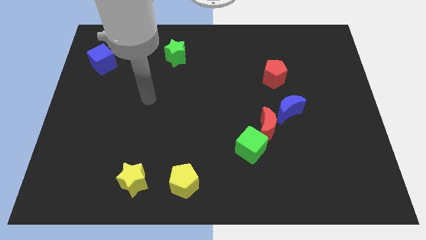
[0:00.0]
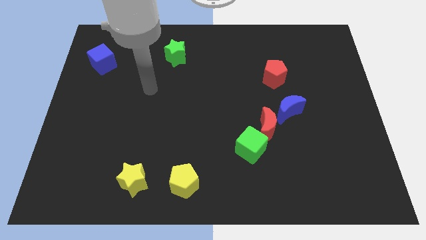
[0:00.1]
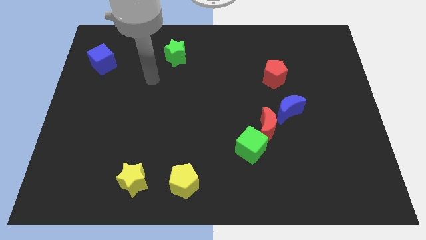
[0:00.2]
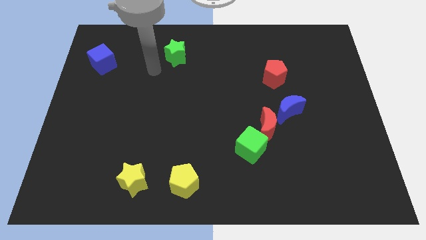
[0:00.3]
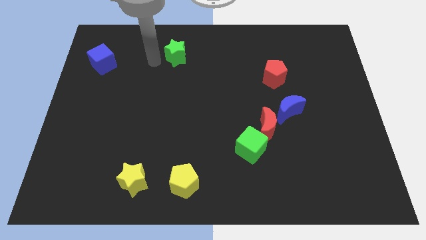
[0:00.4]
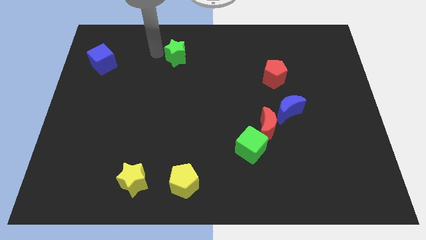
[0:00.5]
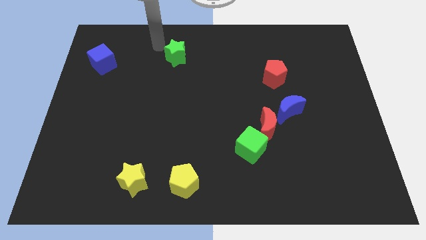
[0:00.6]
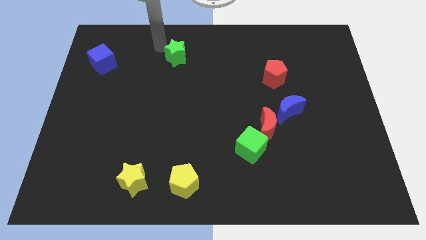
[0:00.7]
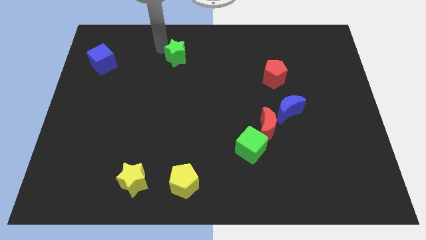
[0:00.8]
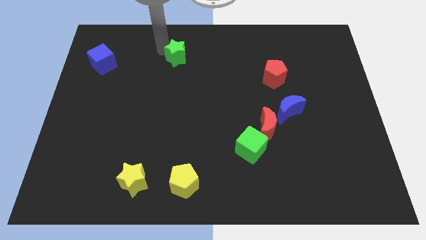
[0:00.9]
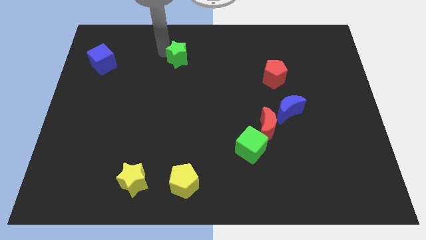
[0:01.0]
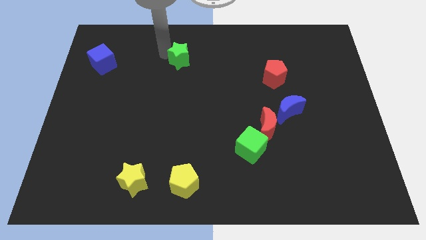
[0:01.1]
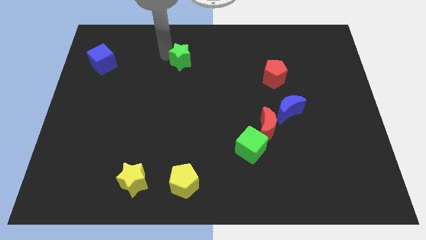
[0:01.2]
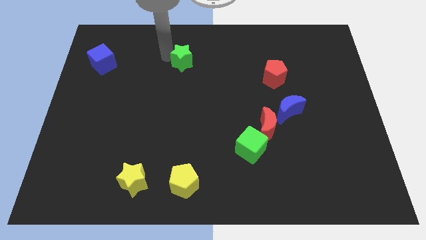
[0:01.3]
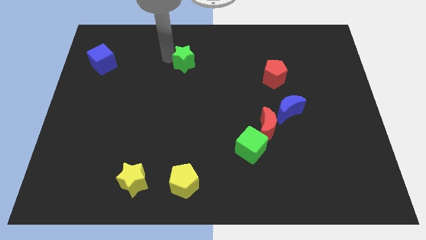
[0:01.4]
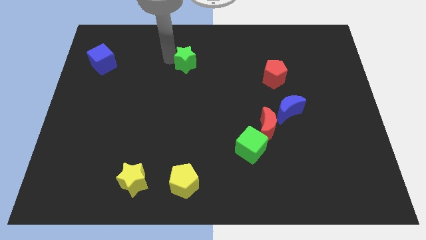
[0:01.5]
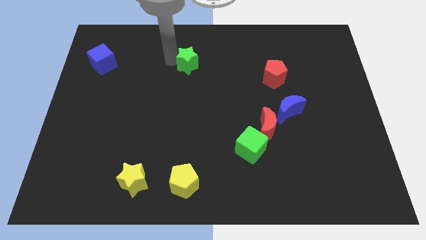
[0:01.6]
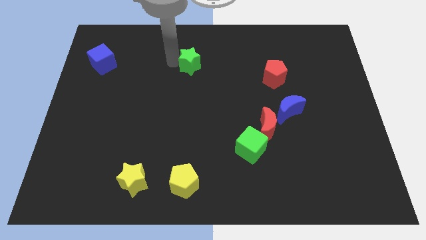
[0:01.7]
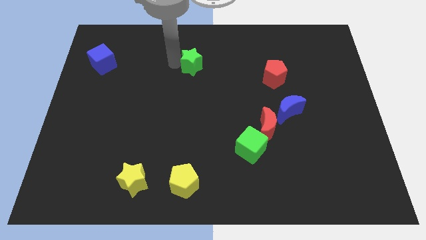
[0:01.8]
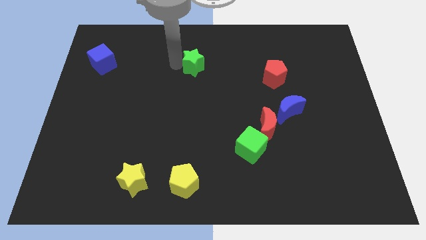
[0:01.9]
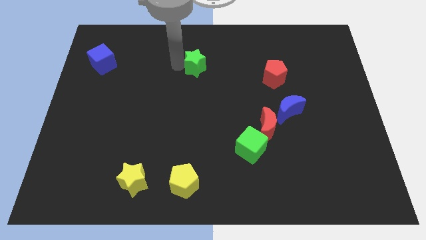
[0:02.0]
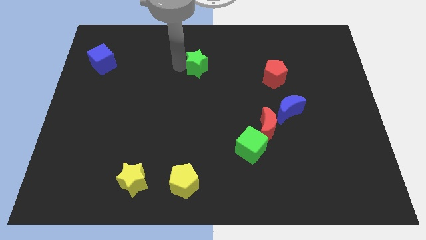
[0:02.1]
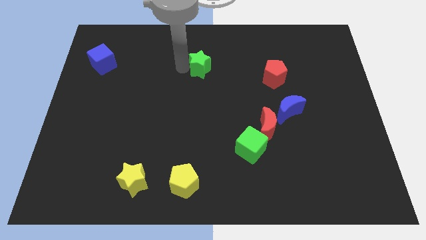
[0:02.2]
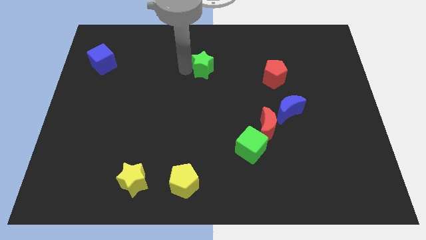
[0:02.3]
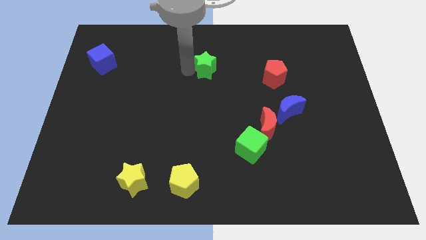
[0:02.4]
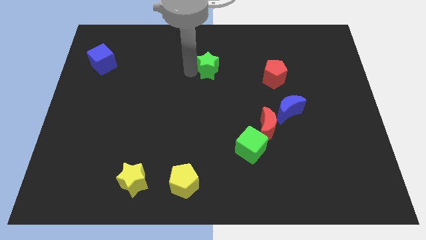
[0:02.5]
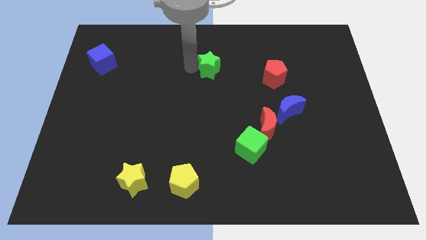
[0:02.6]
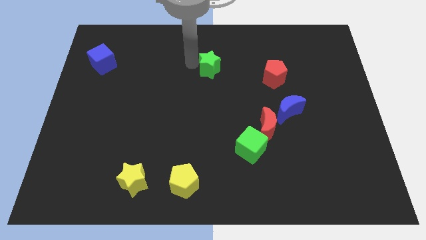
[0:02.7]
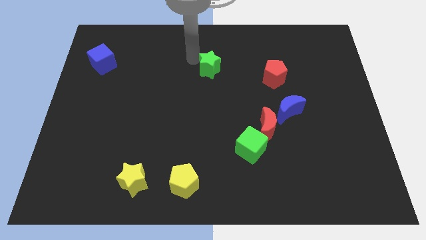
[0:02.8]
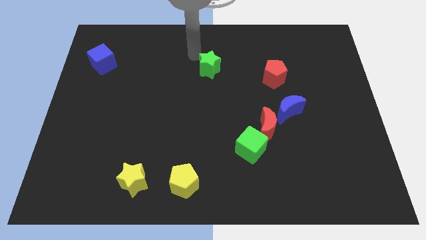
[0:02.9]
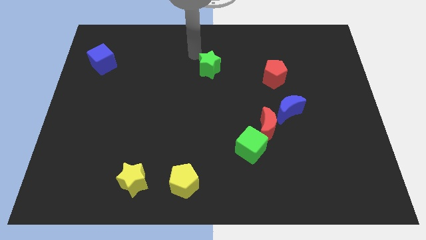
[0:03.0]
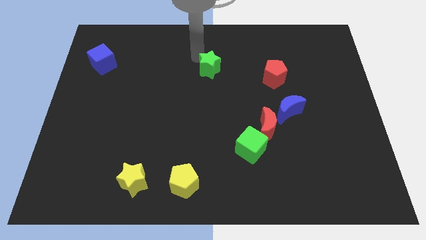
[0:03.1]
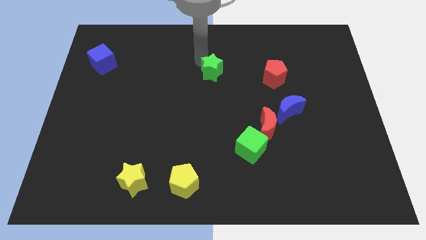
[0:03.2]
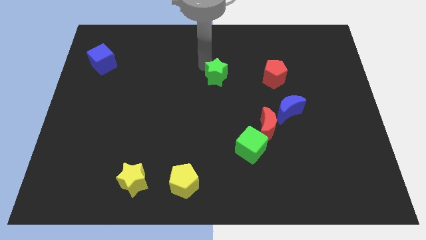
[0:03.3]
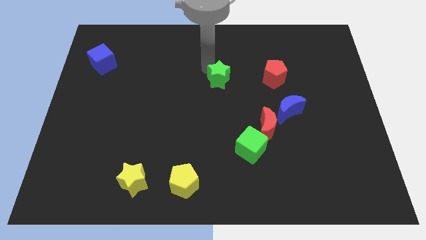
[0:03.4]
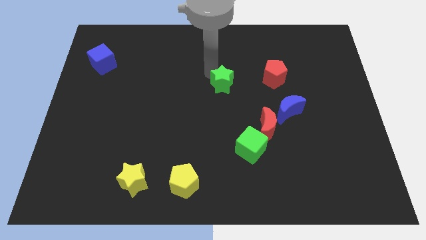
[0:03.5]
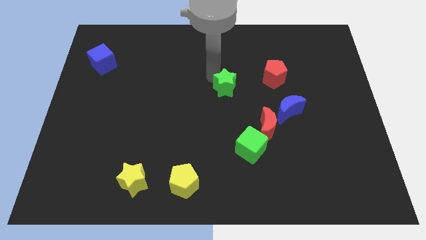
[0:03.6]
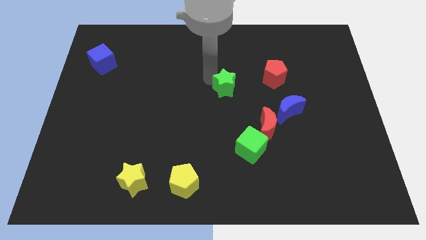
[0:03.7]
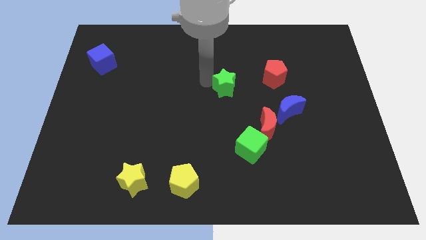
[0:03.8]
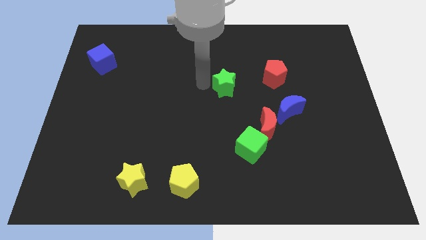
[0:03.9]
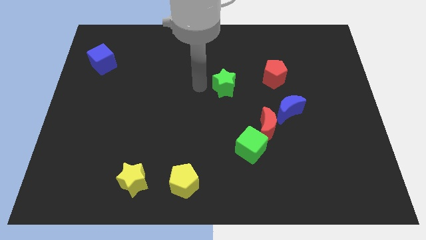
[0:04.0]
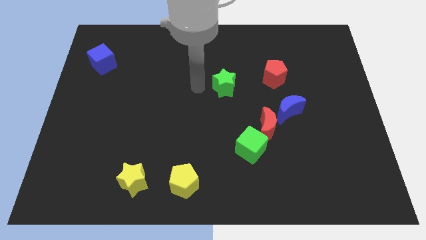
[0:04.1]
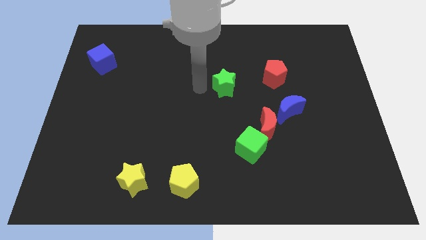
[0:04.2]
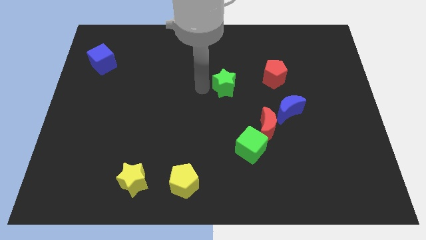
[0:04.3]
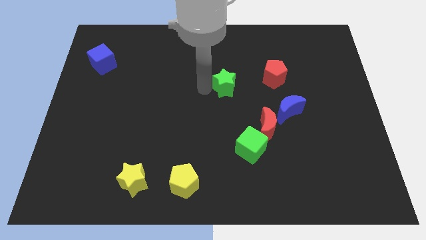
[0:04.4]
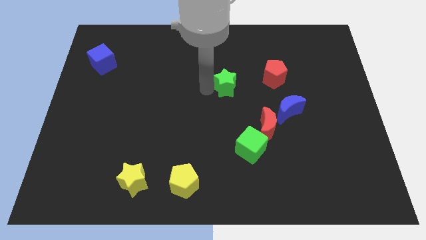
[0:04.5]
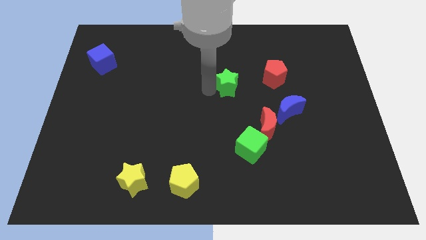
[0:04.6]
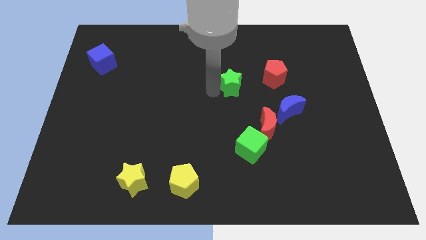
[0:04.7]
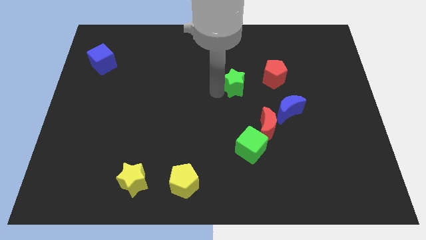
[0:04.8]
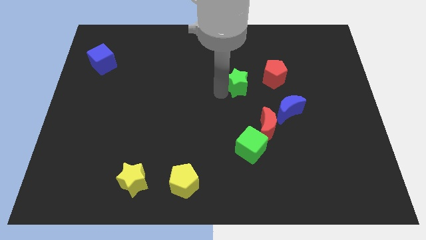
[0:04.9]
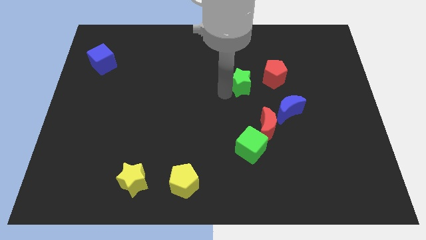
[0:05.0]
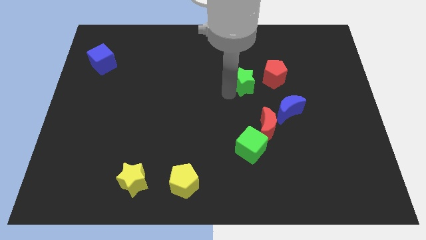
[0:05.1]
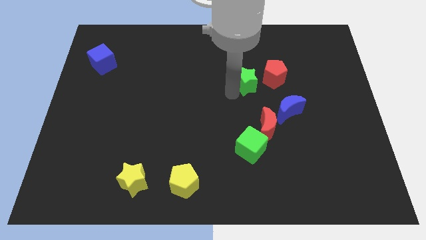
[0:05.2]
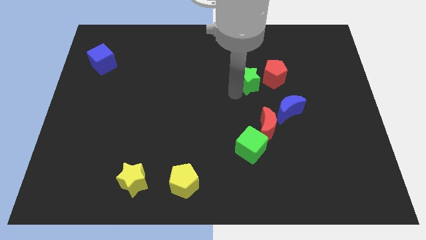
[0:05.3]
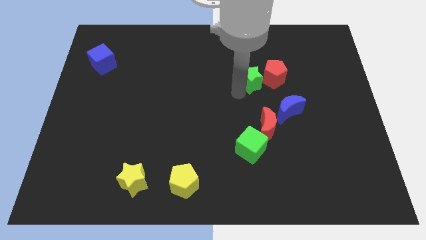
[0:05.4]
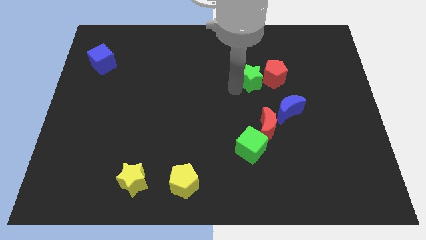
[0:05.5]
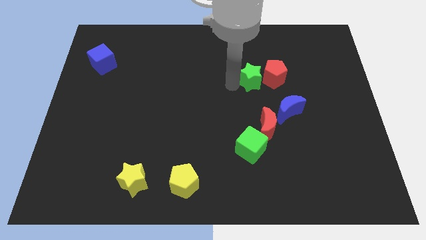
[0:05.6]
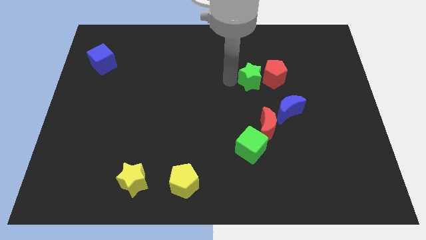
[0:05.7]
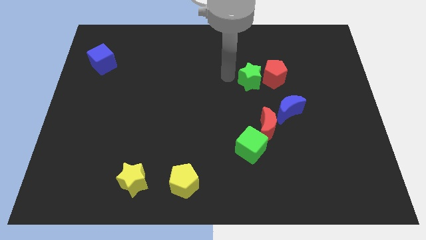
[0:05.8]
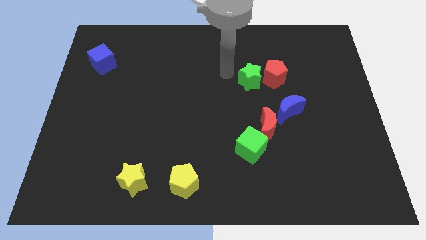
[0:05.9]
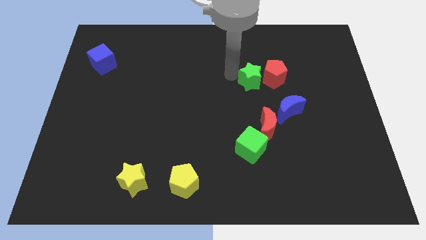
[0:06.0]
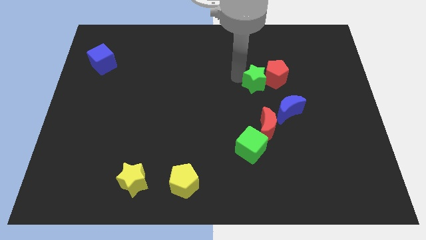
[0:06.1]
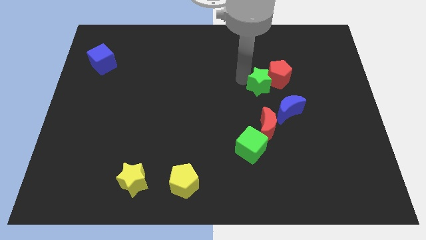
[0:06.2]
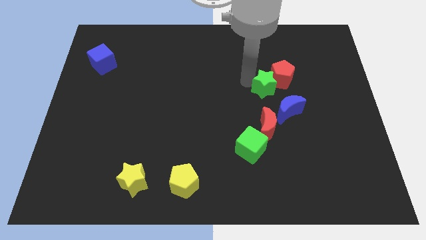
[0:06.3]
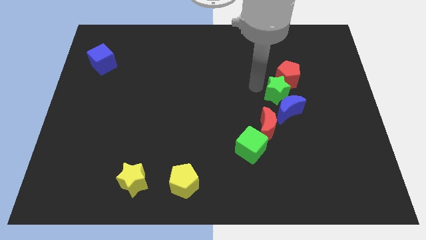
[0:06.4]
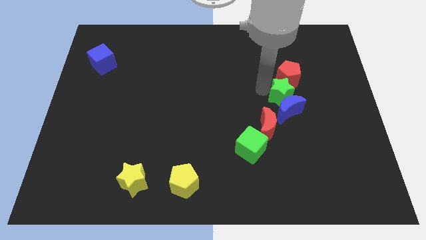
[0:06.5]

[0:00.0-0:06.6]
slide the green star to the top right side of the blue moon
